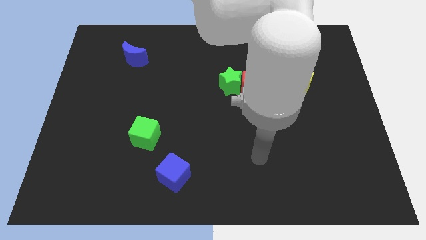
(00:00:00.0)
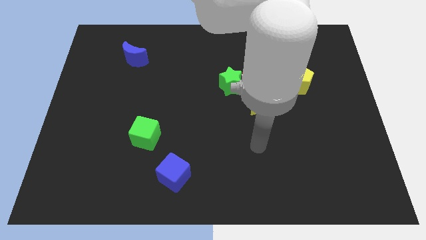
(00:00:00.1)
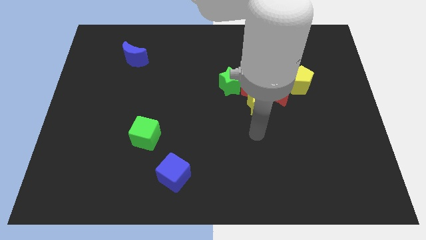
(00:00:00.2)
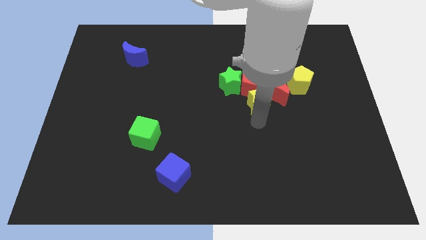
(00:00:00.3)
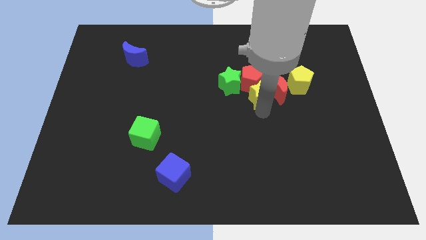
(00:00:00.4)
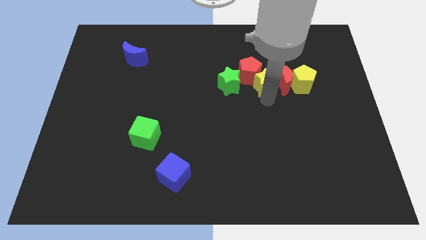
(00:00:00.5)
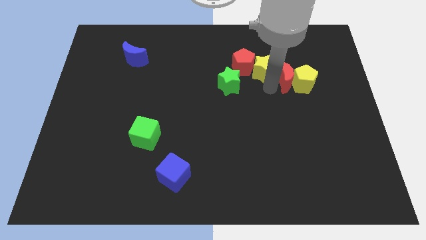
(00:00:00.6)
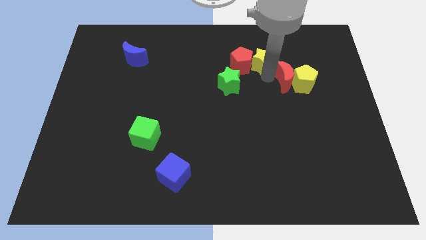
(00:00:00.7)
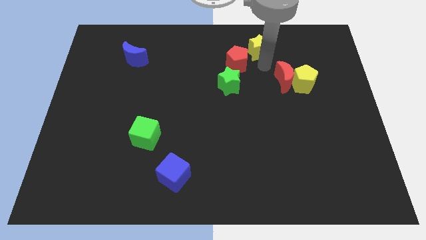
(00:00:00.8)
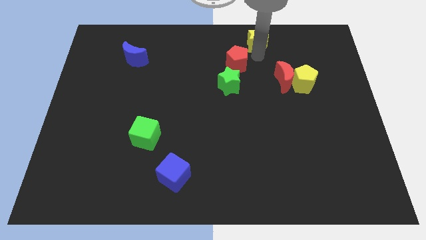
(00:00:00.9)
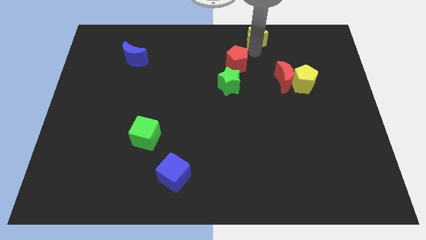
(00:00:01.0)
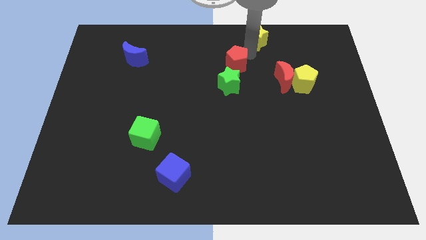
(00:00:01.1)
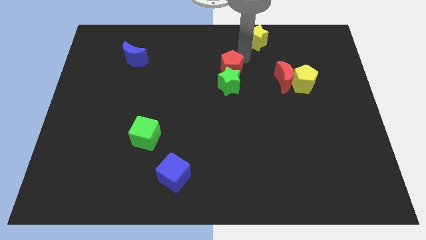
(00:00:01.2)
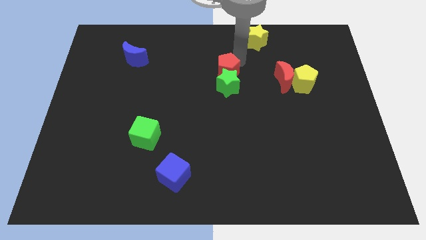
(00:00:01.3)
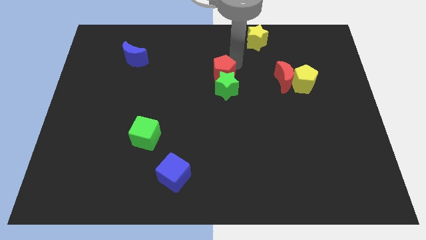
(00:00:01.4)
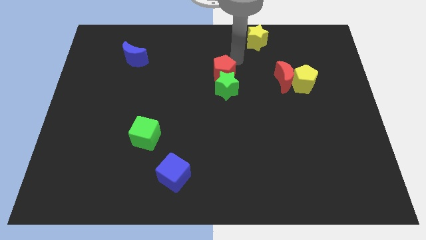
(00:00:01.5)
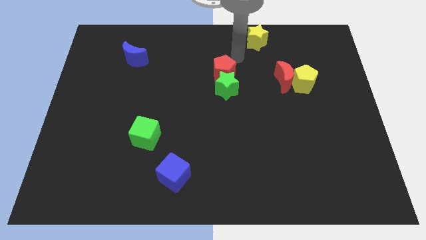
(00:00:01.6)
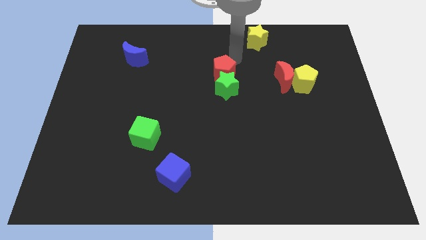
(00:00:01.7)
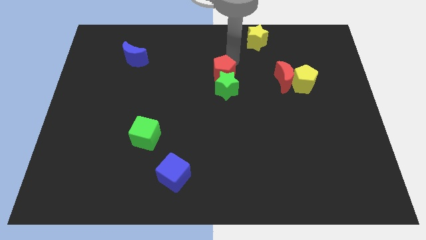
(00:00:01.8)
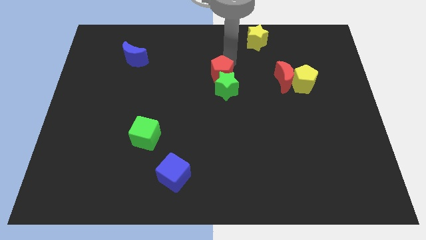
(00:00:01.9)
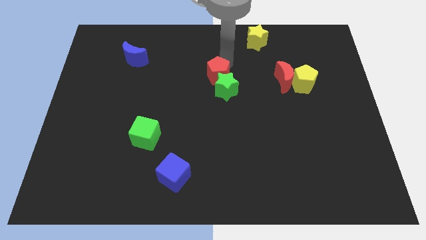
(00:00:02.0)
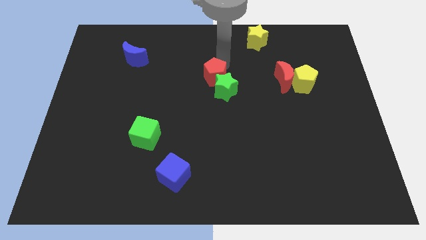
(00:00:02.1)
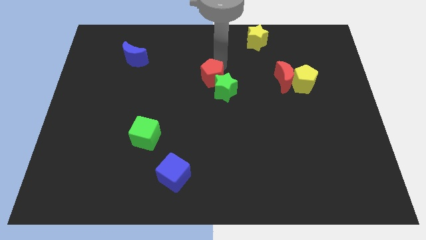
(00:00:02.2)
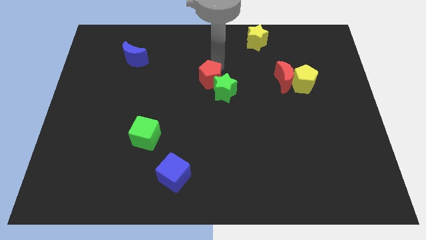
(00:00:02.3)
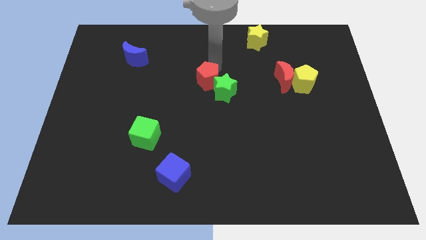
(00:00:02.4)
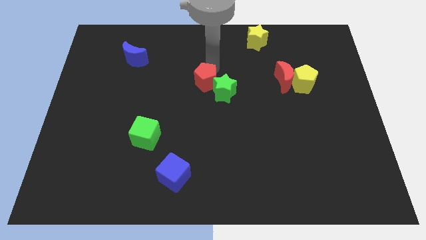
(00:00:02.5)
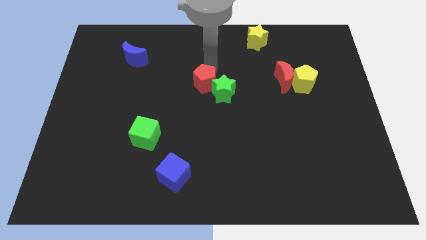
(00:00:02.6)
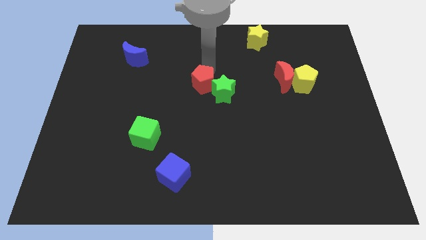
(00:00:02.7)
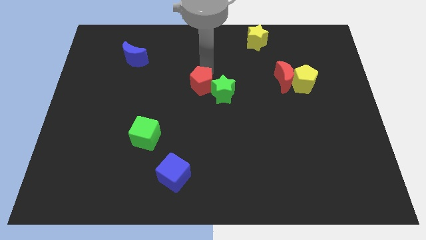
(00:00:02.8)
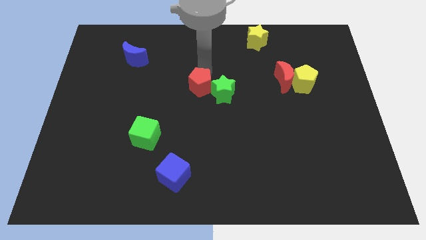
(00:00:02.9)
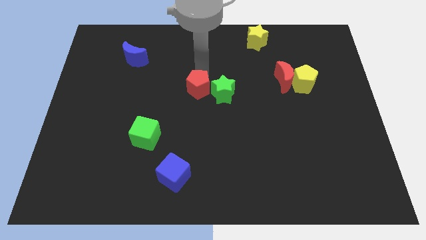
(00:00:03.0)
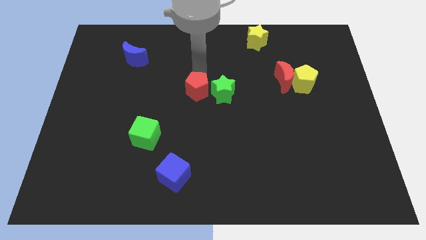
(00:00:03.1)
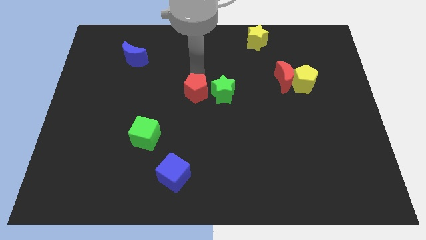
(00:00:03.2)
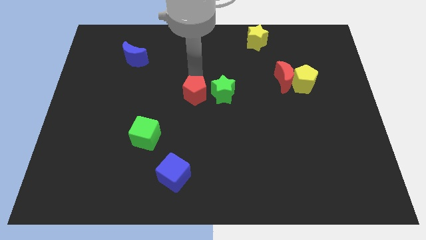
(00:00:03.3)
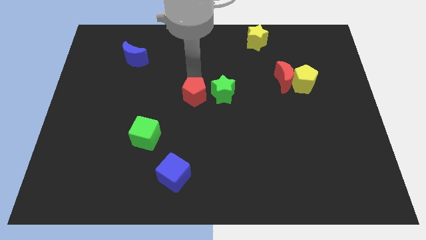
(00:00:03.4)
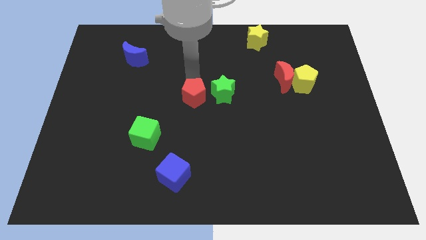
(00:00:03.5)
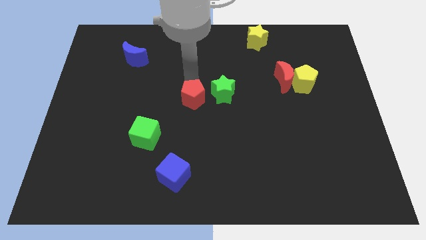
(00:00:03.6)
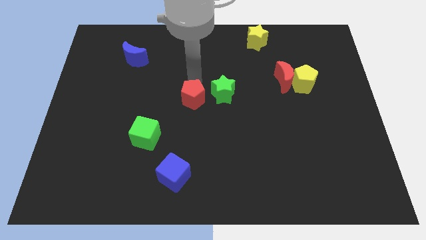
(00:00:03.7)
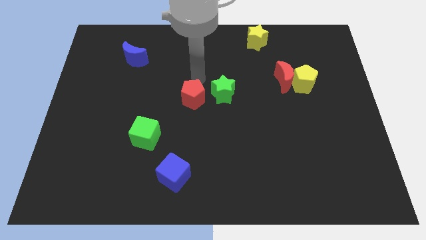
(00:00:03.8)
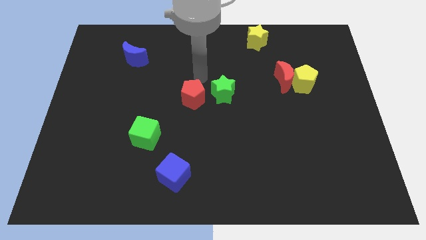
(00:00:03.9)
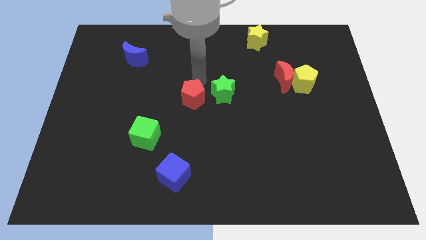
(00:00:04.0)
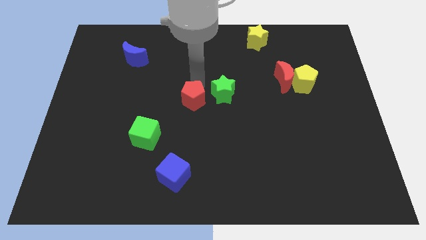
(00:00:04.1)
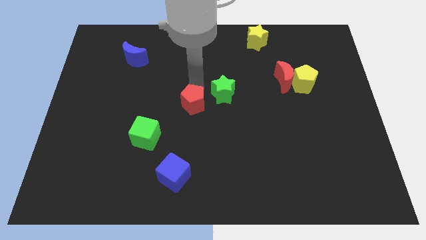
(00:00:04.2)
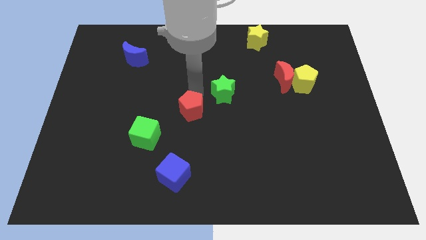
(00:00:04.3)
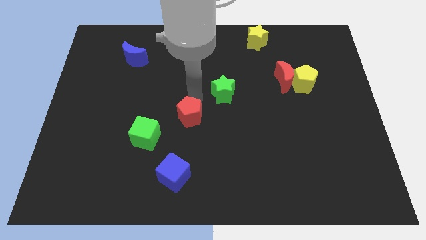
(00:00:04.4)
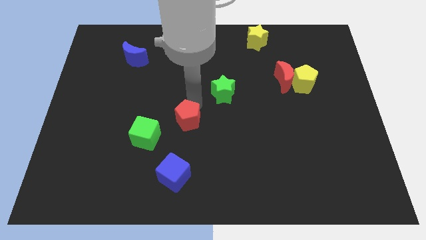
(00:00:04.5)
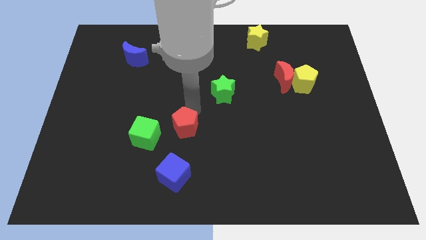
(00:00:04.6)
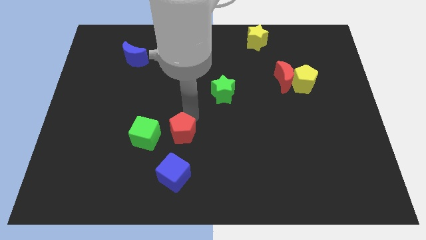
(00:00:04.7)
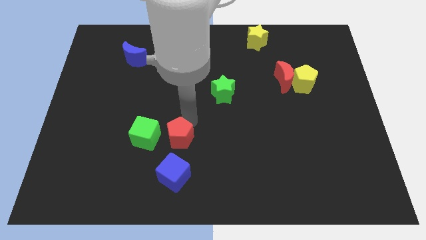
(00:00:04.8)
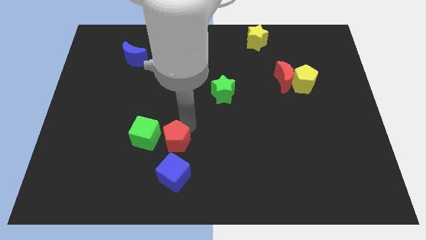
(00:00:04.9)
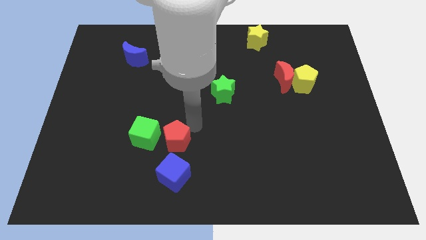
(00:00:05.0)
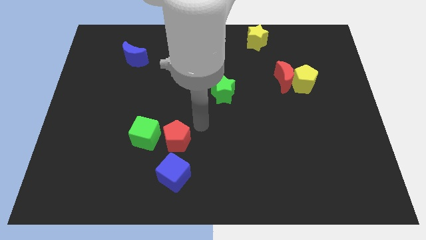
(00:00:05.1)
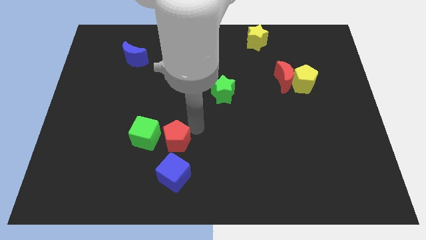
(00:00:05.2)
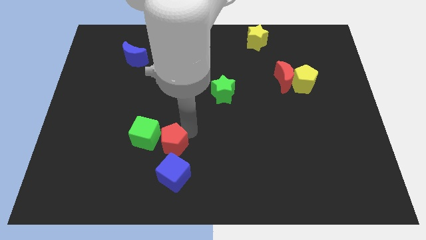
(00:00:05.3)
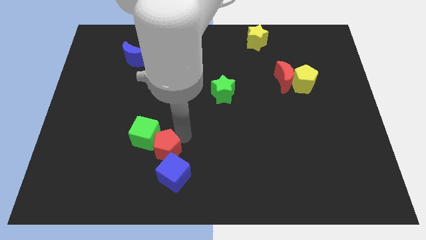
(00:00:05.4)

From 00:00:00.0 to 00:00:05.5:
move the red pentagon to the top left of the blue cube

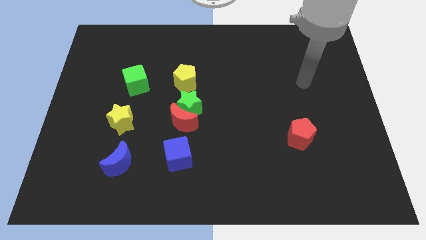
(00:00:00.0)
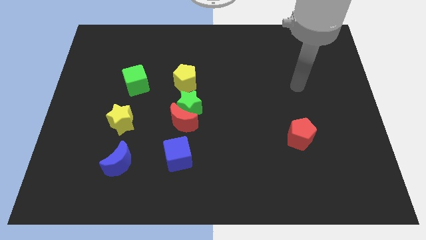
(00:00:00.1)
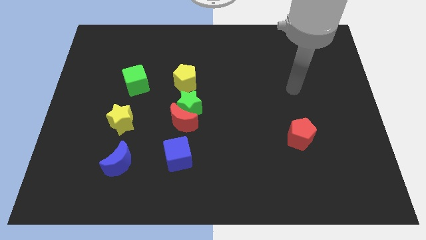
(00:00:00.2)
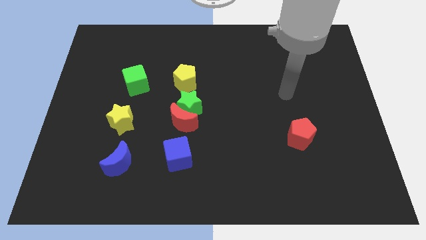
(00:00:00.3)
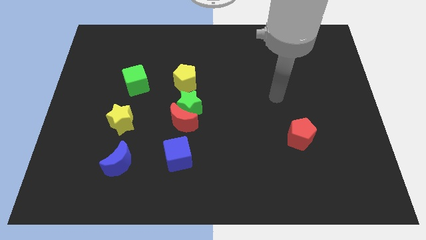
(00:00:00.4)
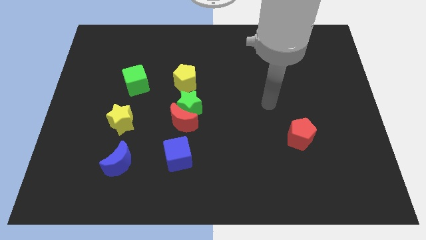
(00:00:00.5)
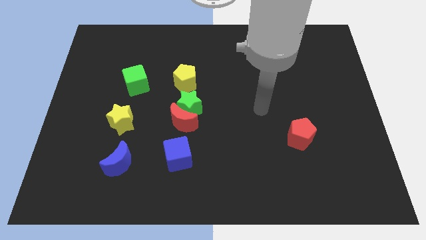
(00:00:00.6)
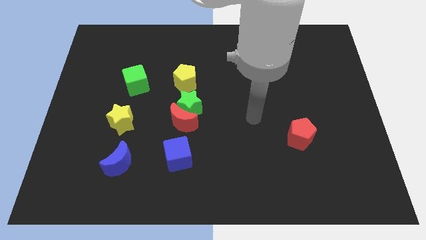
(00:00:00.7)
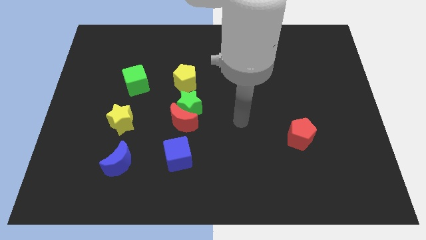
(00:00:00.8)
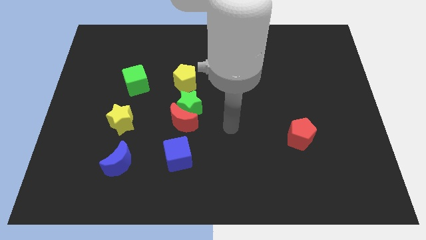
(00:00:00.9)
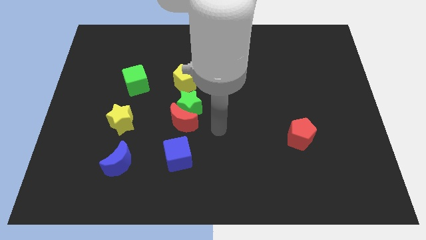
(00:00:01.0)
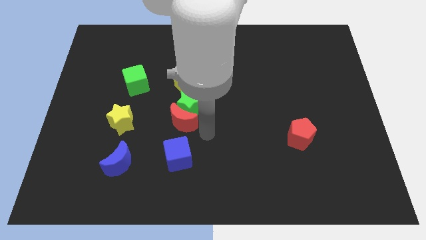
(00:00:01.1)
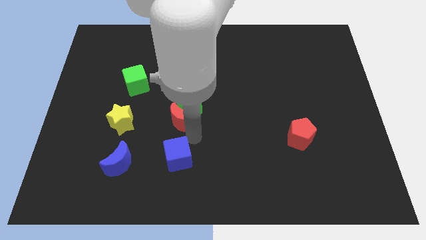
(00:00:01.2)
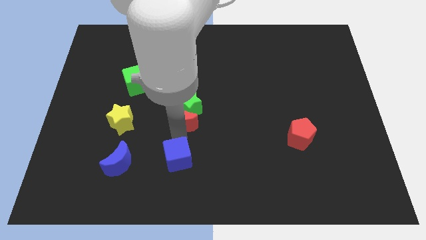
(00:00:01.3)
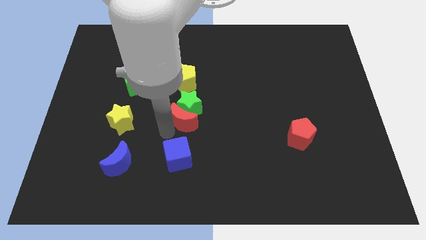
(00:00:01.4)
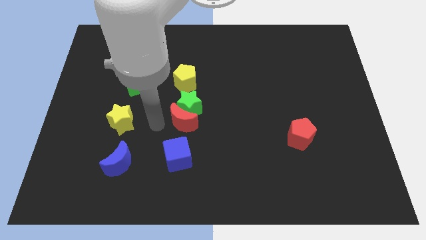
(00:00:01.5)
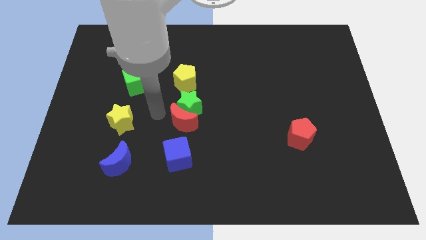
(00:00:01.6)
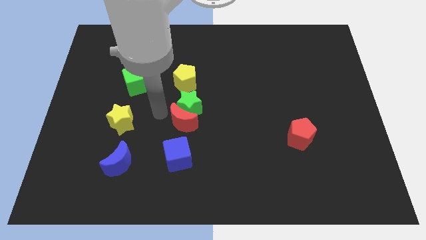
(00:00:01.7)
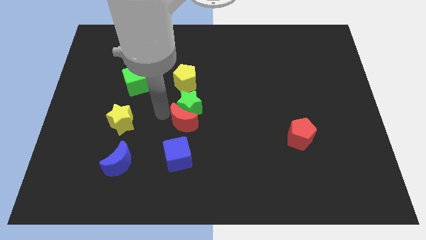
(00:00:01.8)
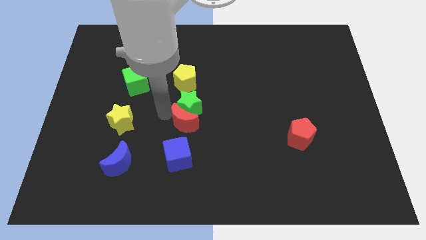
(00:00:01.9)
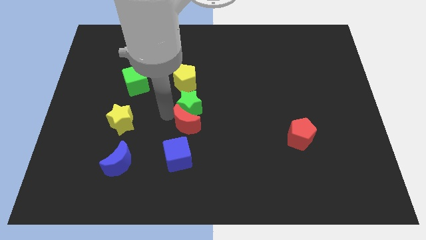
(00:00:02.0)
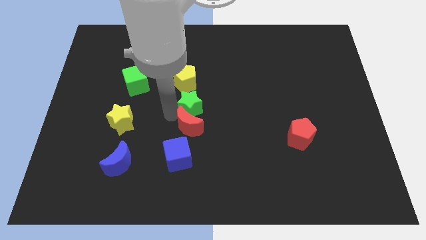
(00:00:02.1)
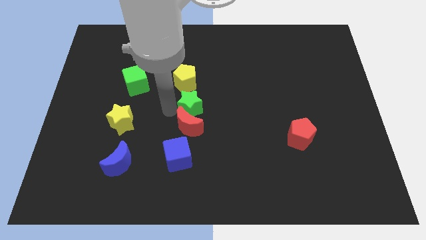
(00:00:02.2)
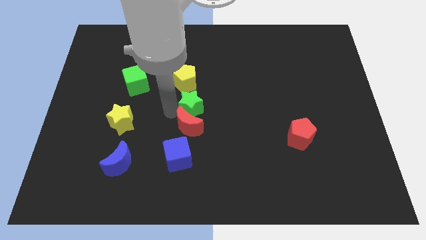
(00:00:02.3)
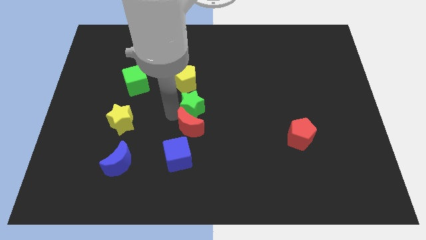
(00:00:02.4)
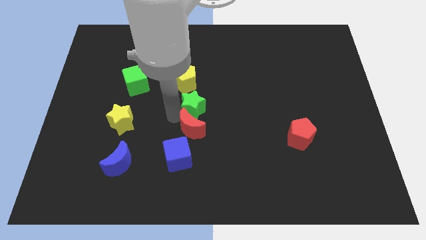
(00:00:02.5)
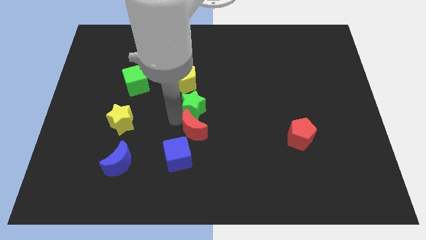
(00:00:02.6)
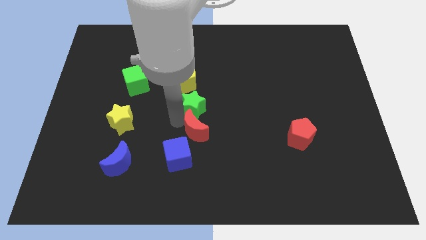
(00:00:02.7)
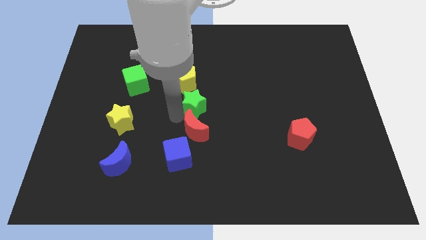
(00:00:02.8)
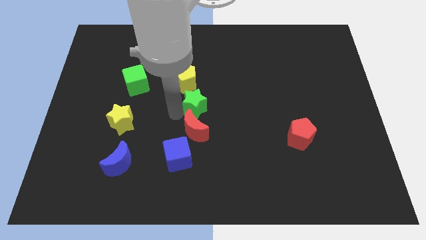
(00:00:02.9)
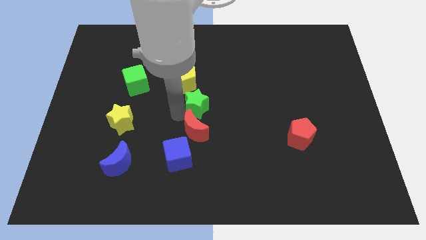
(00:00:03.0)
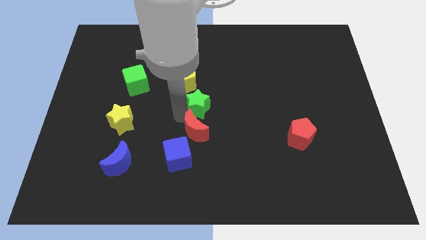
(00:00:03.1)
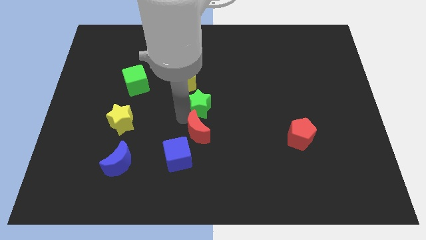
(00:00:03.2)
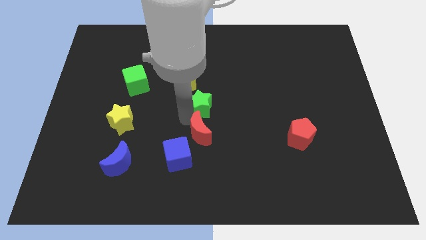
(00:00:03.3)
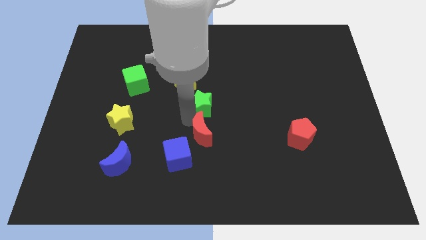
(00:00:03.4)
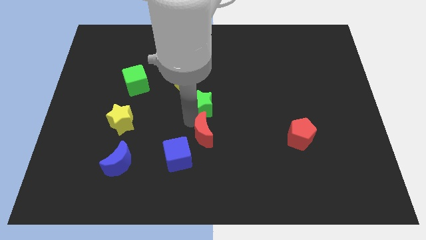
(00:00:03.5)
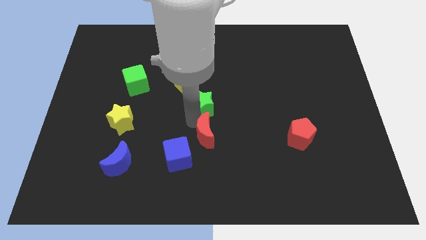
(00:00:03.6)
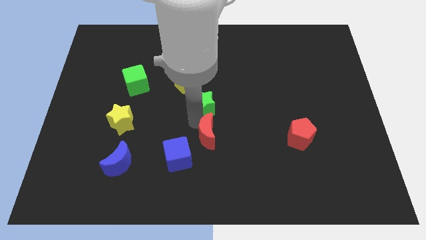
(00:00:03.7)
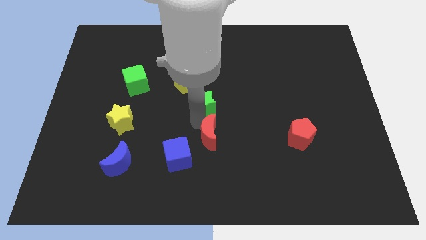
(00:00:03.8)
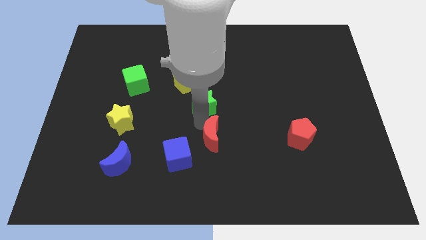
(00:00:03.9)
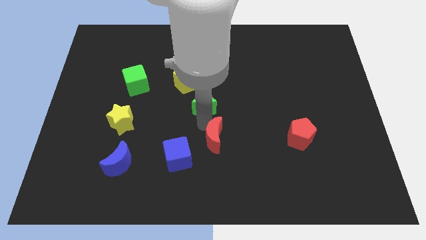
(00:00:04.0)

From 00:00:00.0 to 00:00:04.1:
put the red moon right of the blue cube
